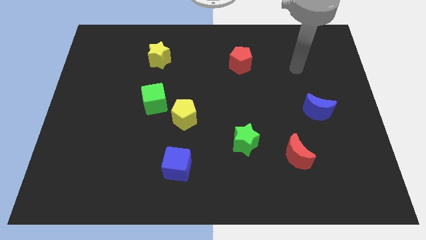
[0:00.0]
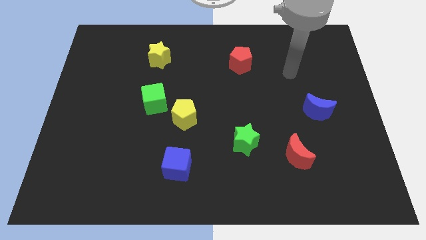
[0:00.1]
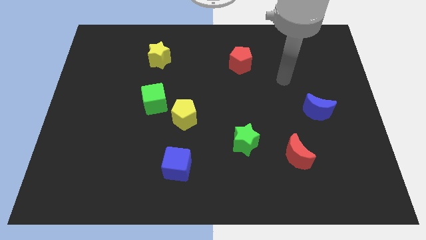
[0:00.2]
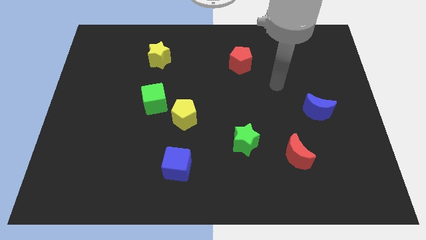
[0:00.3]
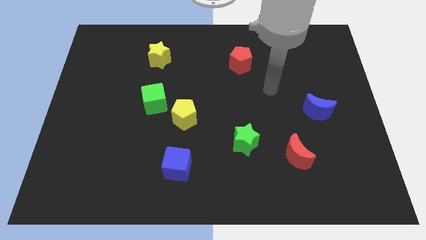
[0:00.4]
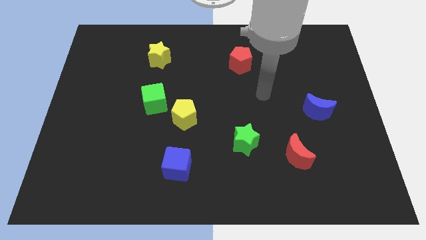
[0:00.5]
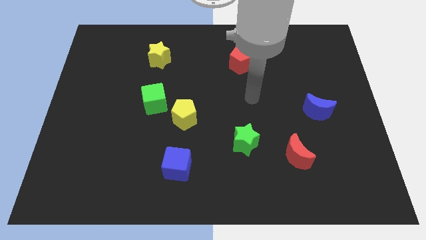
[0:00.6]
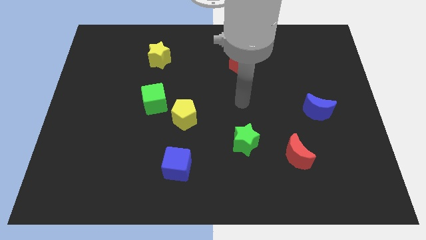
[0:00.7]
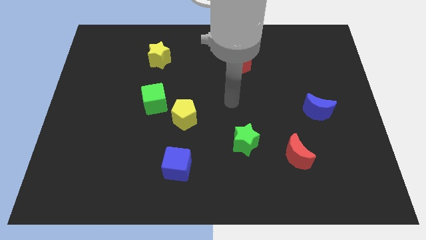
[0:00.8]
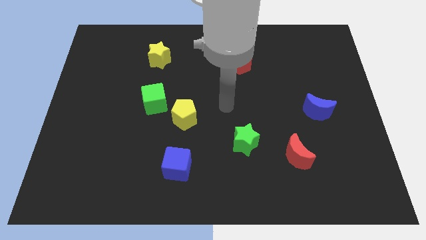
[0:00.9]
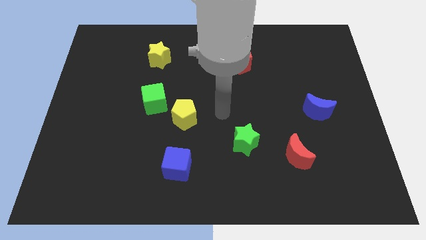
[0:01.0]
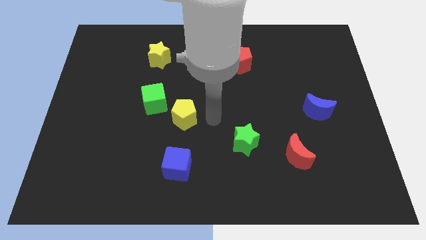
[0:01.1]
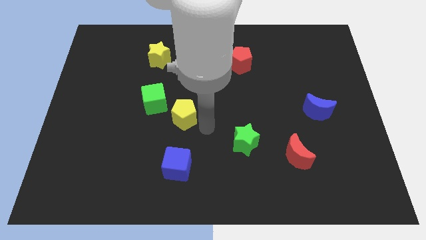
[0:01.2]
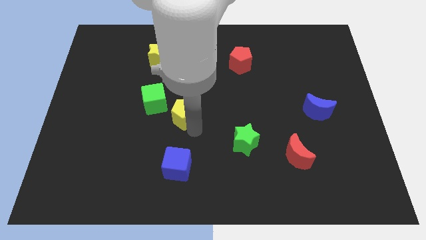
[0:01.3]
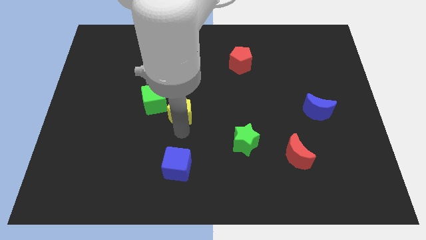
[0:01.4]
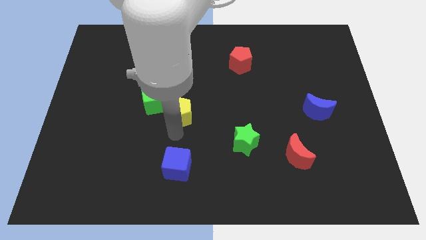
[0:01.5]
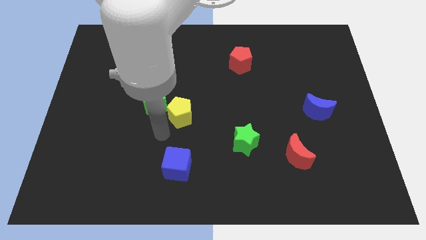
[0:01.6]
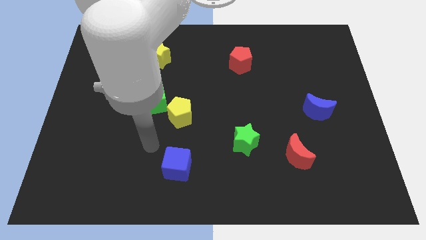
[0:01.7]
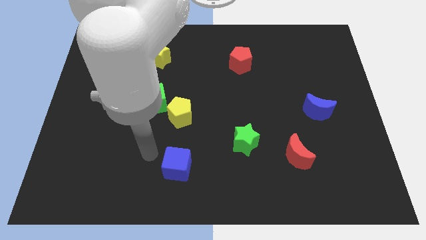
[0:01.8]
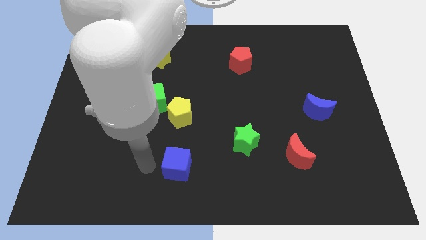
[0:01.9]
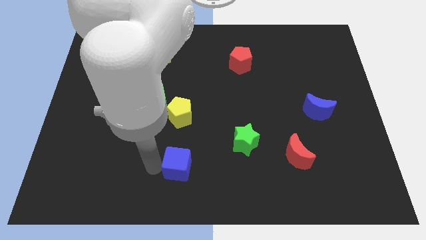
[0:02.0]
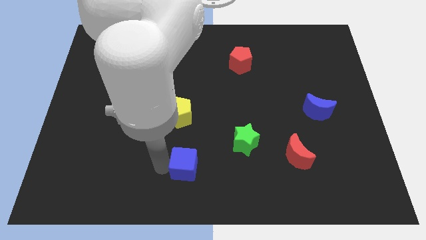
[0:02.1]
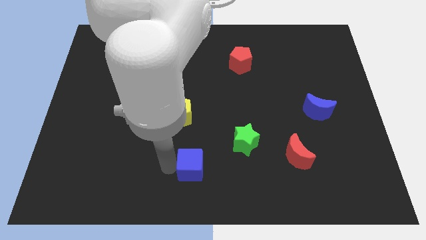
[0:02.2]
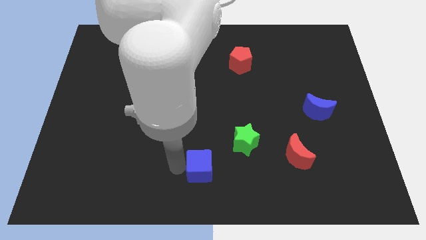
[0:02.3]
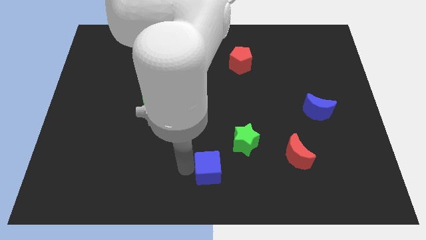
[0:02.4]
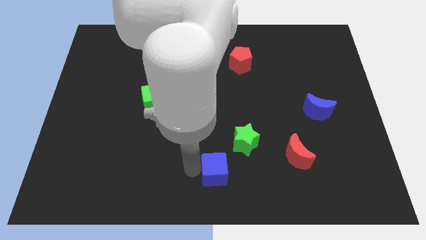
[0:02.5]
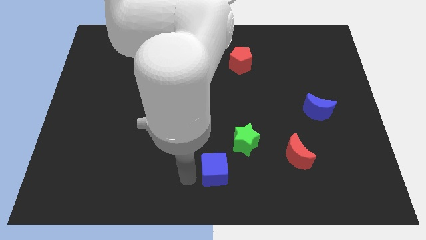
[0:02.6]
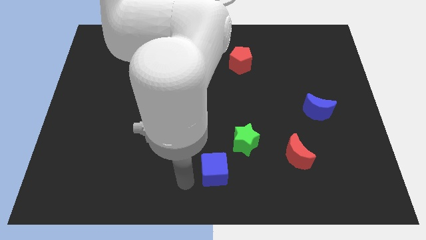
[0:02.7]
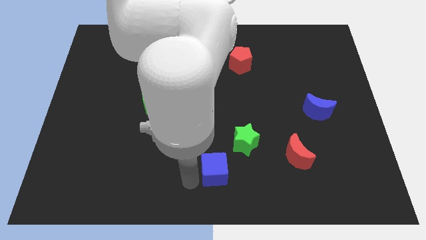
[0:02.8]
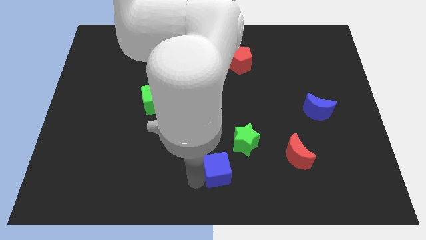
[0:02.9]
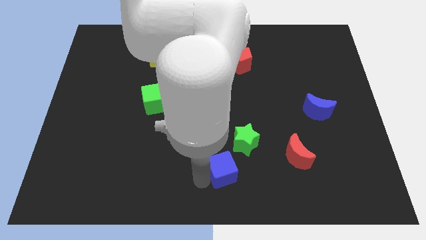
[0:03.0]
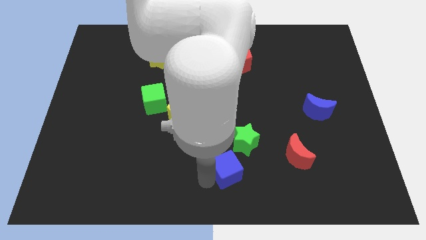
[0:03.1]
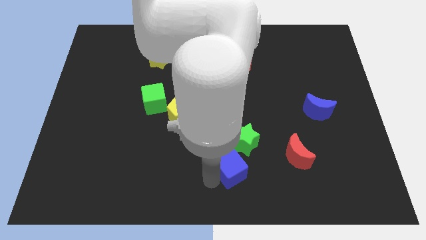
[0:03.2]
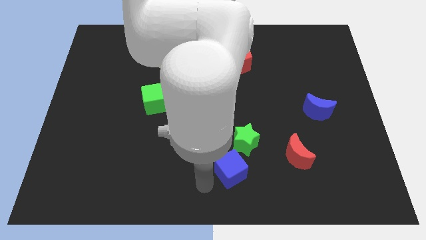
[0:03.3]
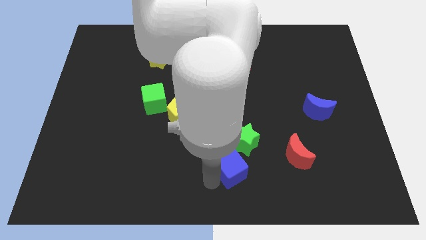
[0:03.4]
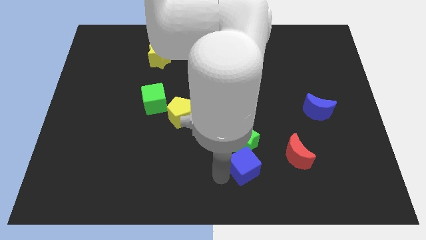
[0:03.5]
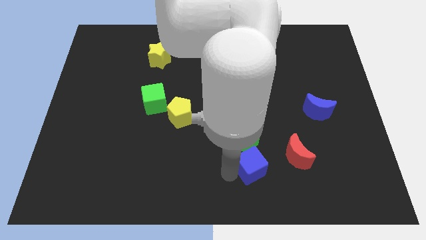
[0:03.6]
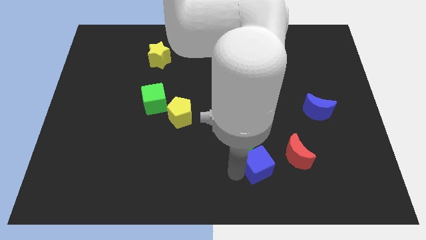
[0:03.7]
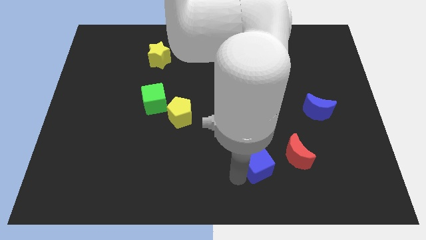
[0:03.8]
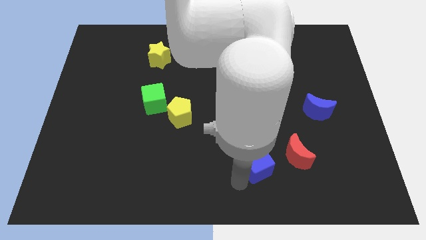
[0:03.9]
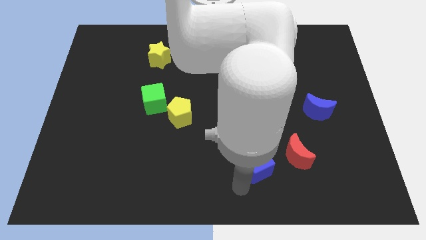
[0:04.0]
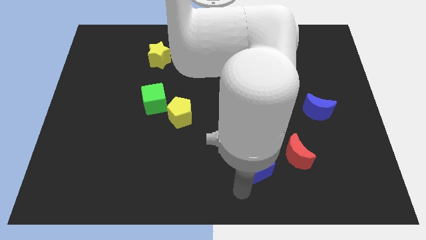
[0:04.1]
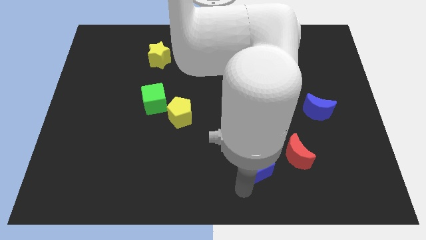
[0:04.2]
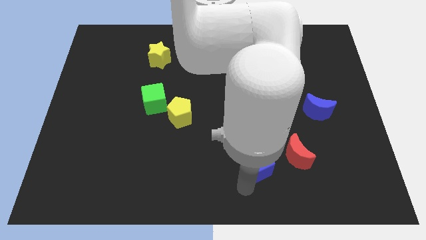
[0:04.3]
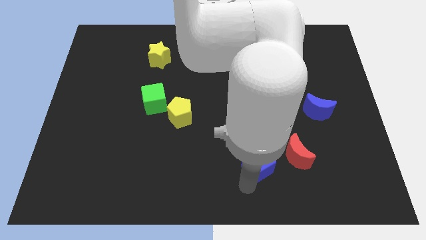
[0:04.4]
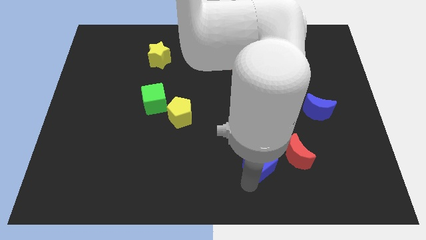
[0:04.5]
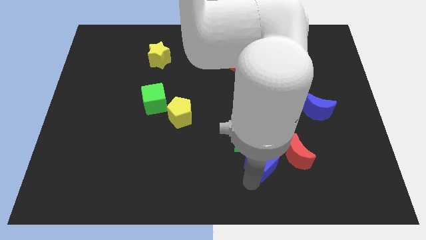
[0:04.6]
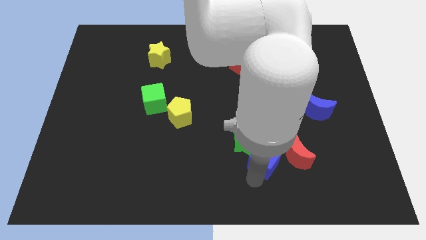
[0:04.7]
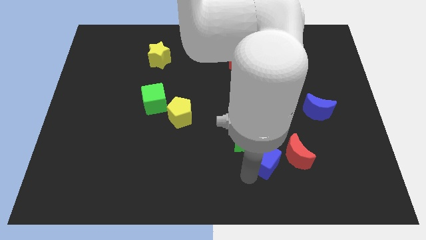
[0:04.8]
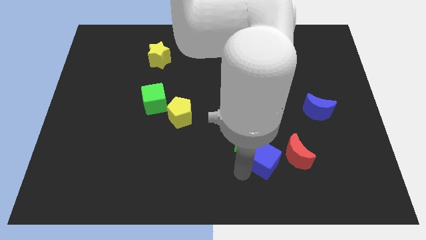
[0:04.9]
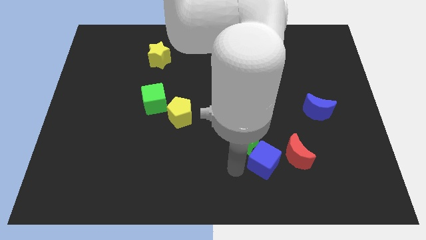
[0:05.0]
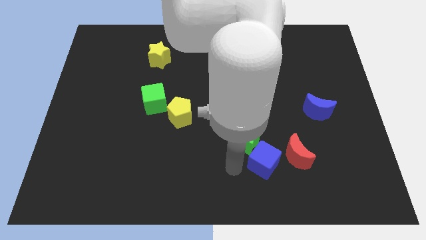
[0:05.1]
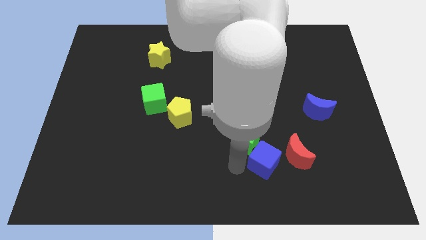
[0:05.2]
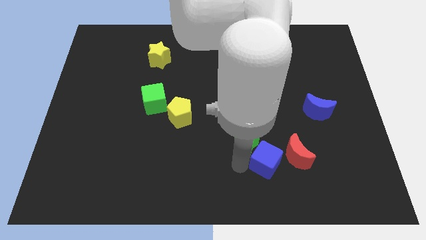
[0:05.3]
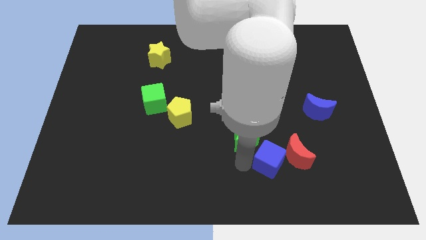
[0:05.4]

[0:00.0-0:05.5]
put the blue cube close to the red moon

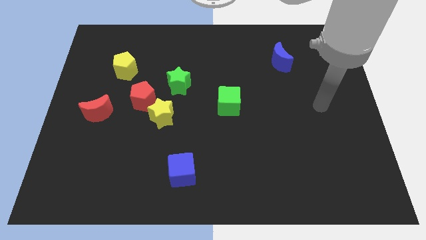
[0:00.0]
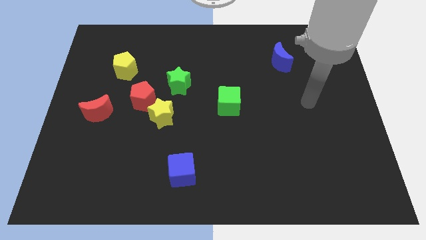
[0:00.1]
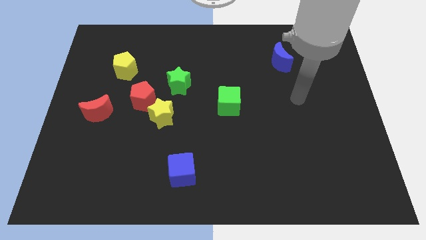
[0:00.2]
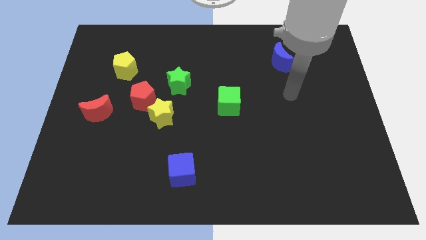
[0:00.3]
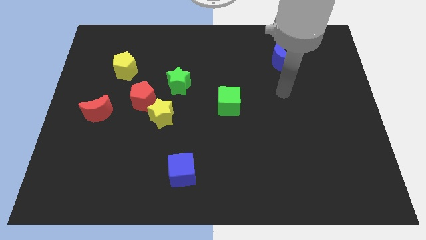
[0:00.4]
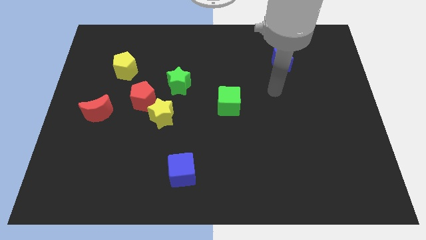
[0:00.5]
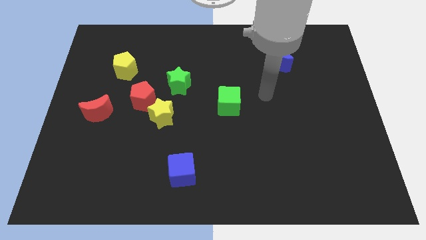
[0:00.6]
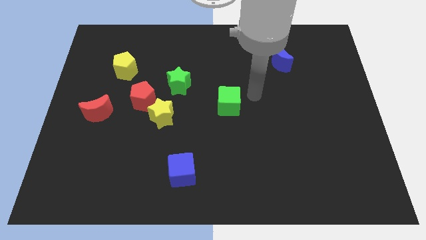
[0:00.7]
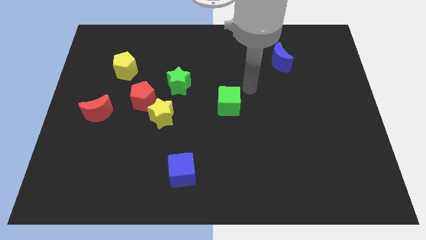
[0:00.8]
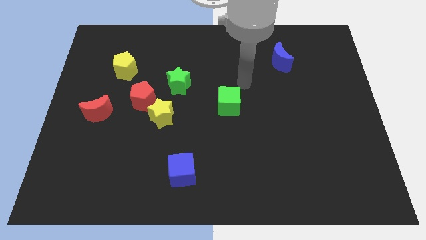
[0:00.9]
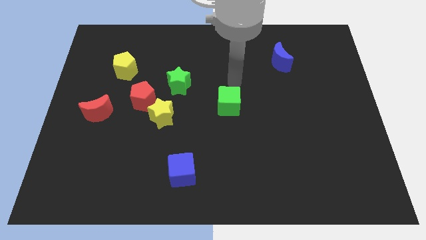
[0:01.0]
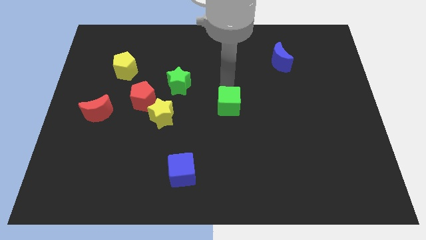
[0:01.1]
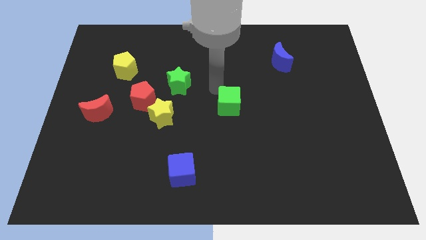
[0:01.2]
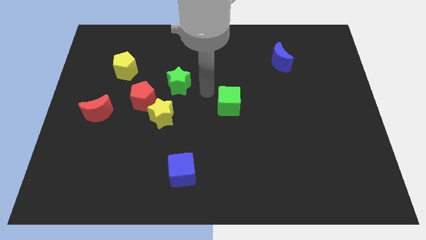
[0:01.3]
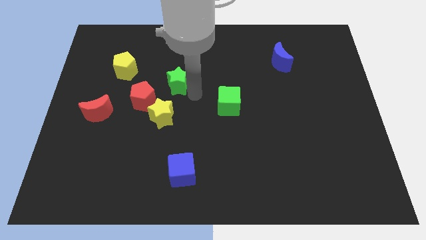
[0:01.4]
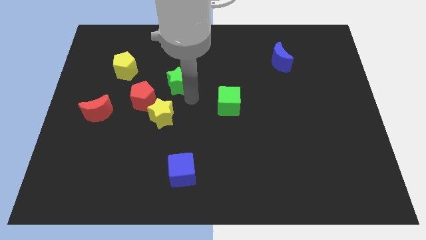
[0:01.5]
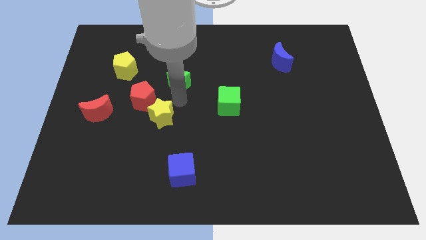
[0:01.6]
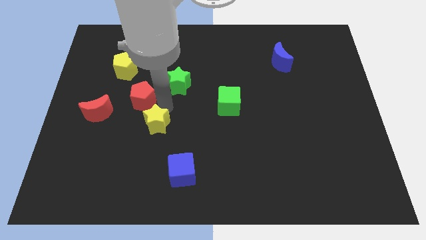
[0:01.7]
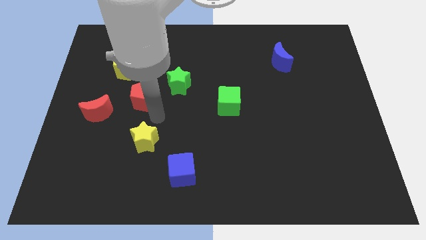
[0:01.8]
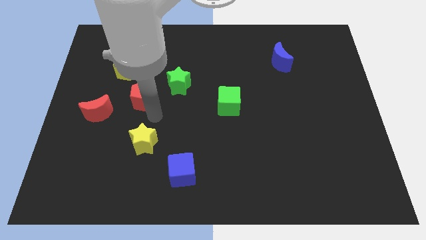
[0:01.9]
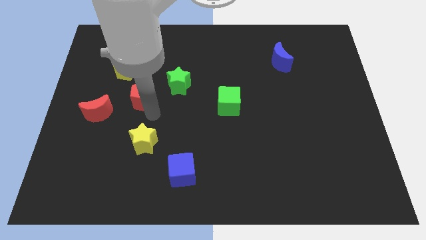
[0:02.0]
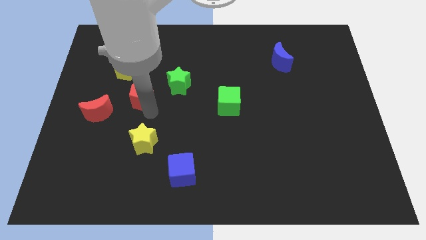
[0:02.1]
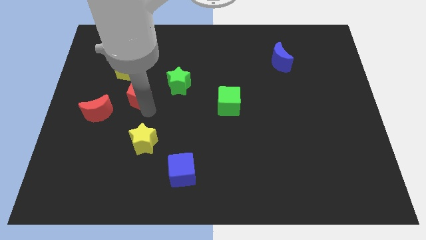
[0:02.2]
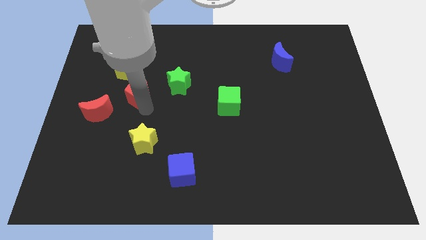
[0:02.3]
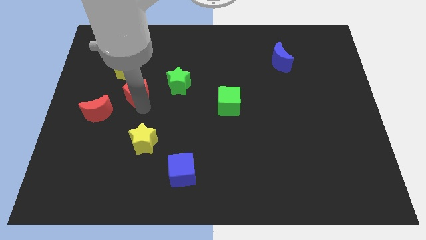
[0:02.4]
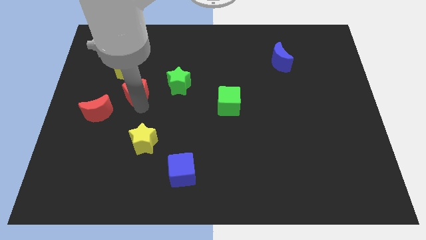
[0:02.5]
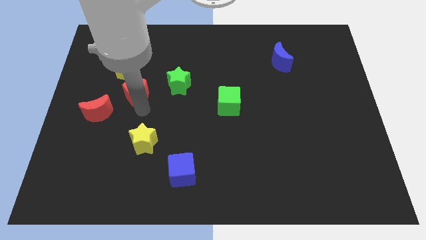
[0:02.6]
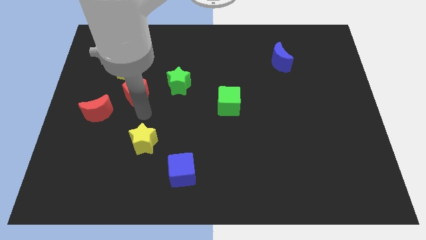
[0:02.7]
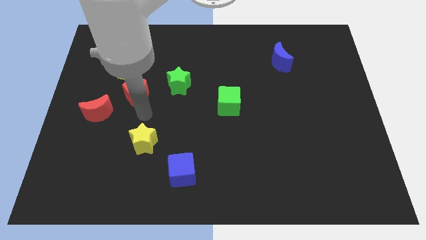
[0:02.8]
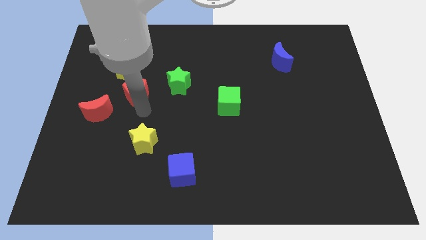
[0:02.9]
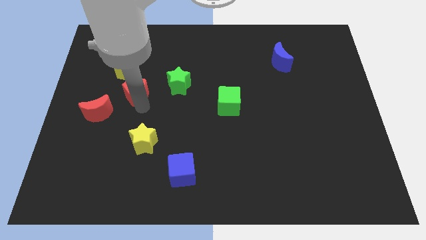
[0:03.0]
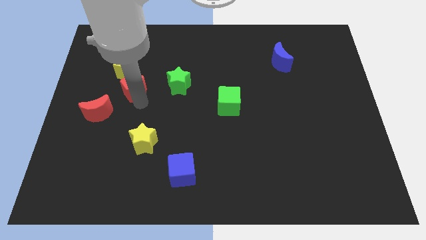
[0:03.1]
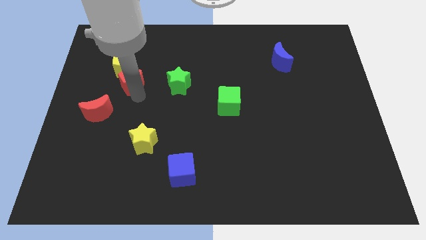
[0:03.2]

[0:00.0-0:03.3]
slide the red pentagon next to the yellow pentagon
